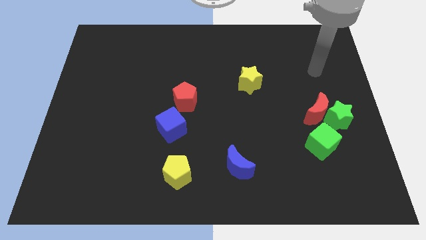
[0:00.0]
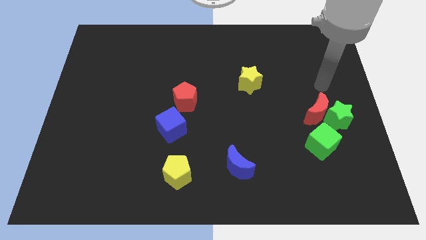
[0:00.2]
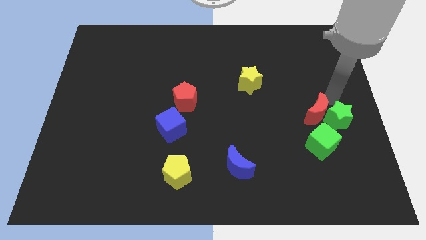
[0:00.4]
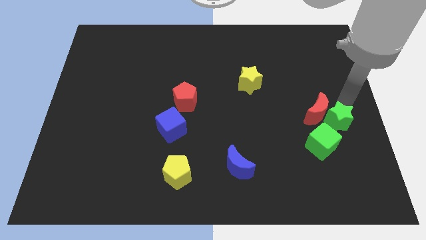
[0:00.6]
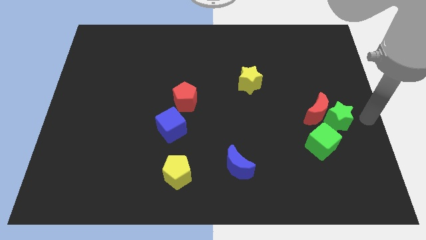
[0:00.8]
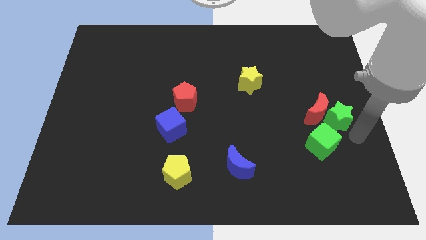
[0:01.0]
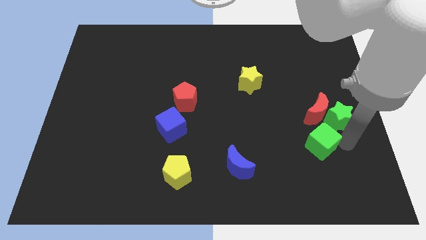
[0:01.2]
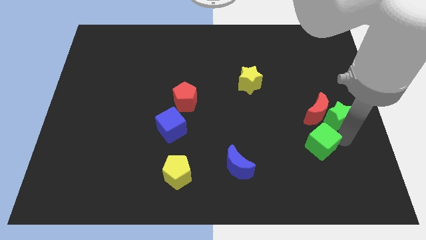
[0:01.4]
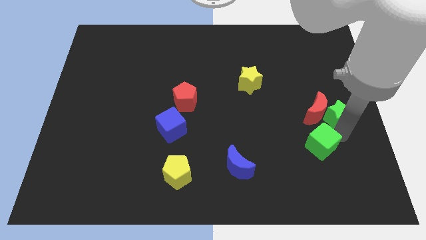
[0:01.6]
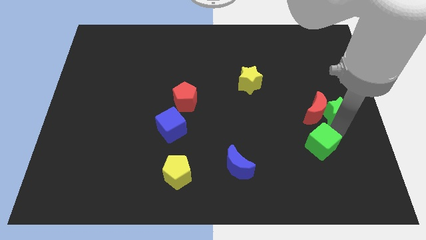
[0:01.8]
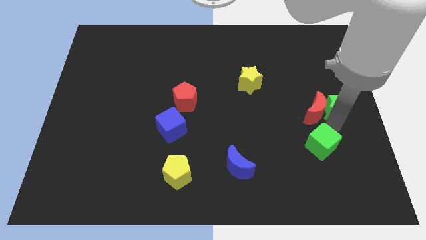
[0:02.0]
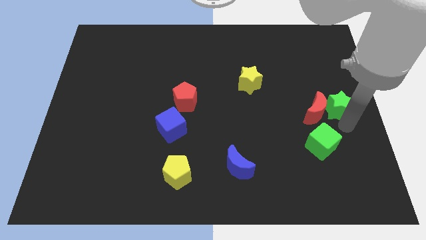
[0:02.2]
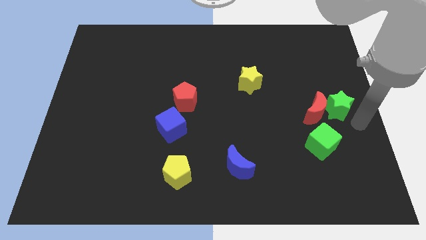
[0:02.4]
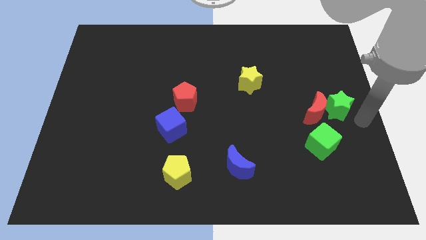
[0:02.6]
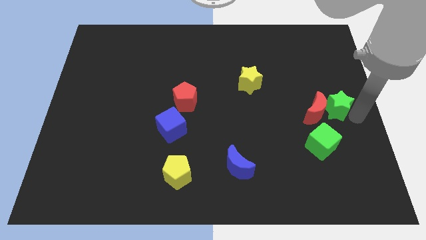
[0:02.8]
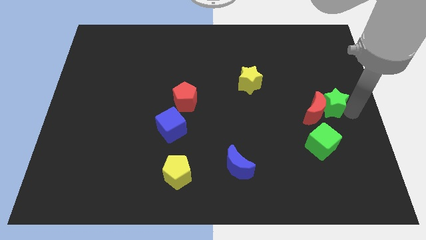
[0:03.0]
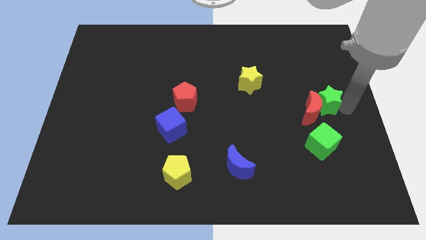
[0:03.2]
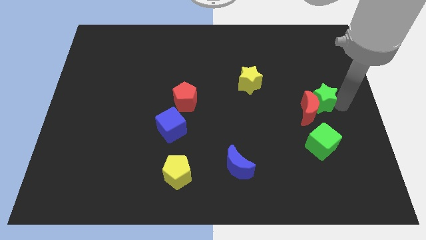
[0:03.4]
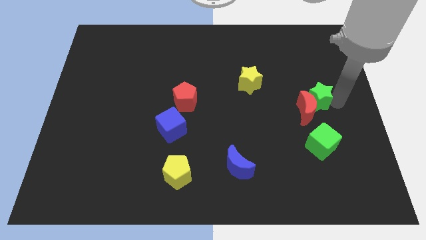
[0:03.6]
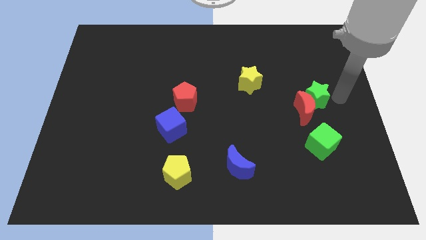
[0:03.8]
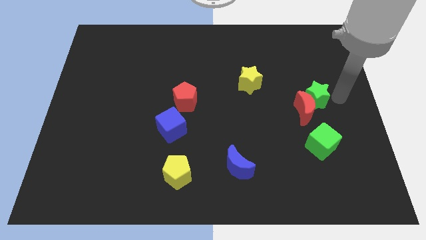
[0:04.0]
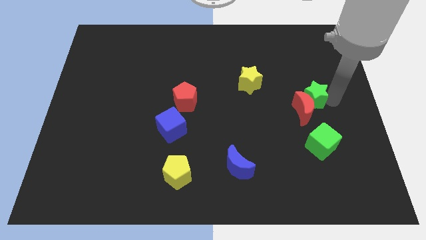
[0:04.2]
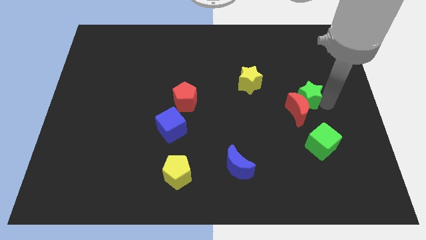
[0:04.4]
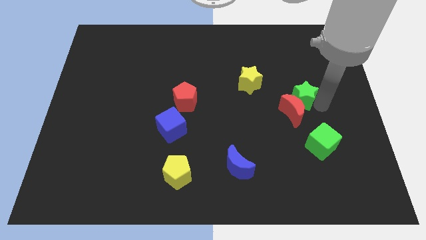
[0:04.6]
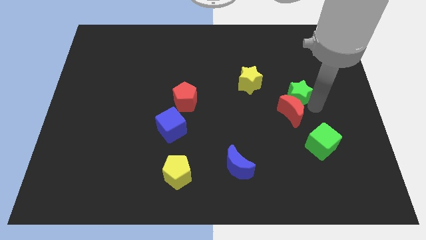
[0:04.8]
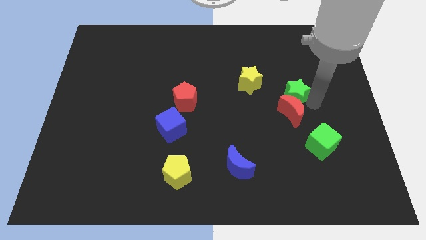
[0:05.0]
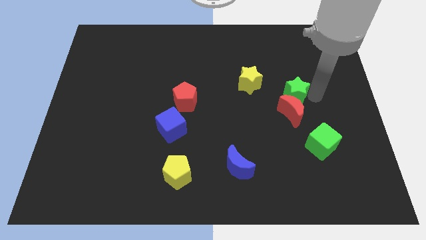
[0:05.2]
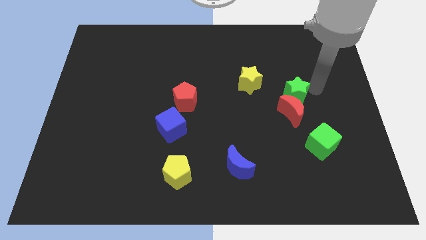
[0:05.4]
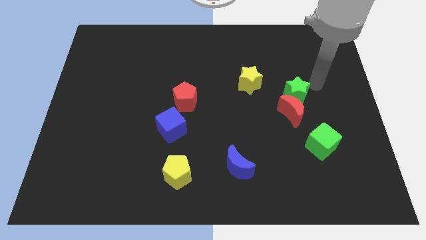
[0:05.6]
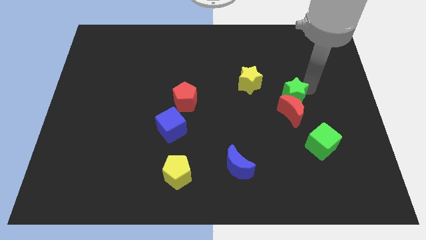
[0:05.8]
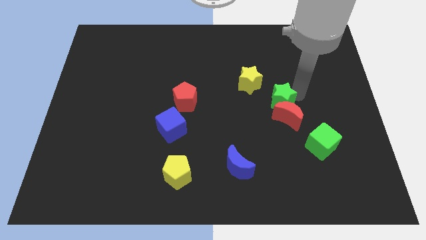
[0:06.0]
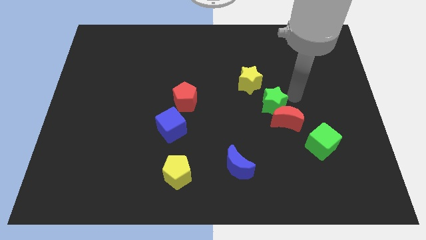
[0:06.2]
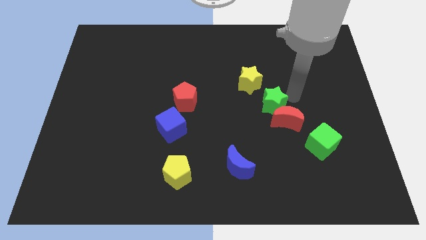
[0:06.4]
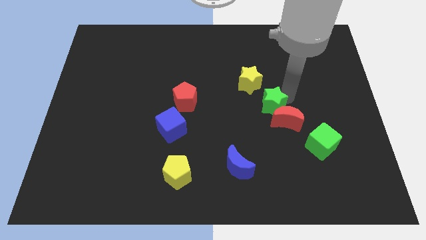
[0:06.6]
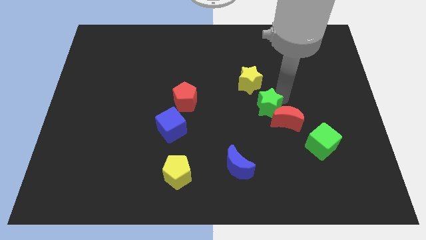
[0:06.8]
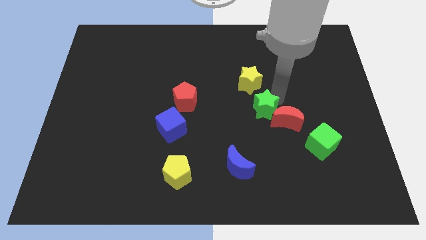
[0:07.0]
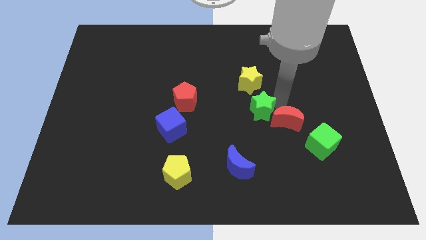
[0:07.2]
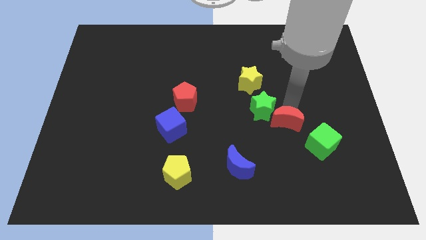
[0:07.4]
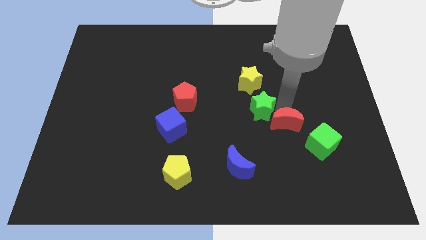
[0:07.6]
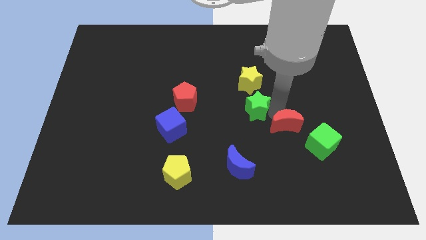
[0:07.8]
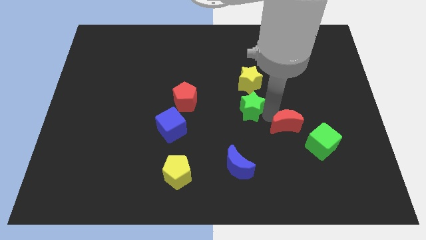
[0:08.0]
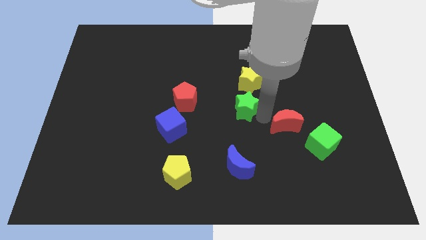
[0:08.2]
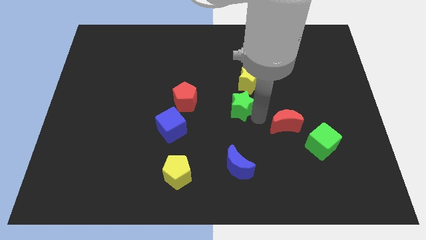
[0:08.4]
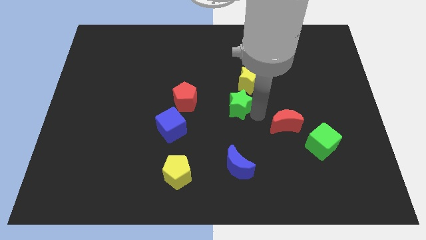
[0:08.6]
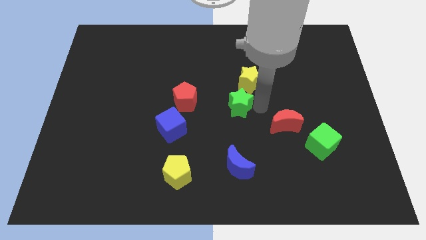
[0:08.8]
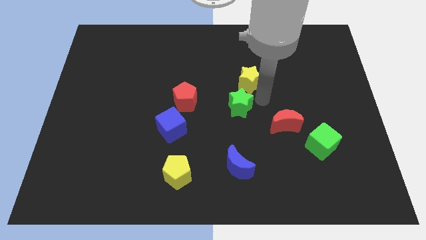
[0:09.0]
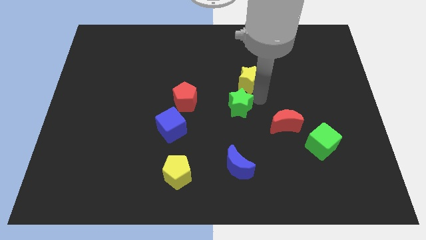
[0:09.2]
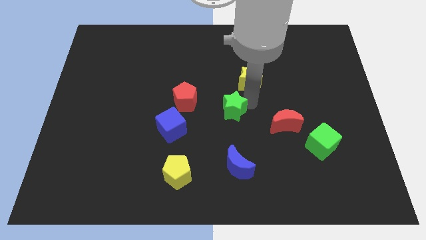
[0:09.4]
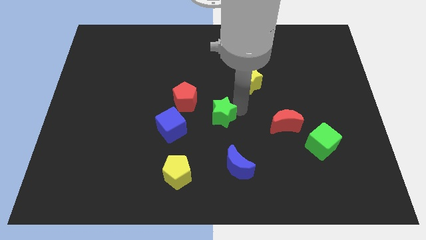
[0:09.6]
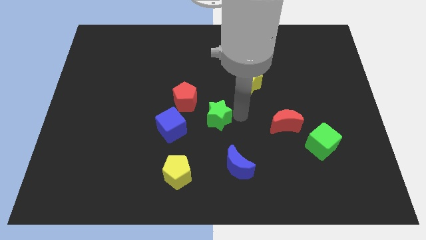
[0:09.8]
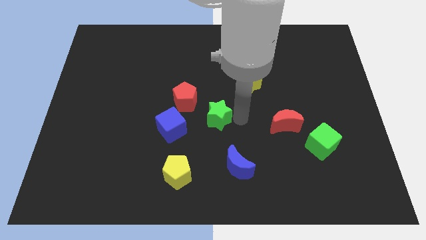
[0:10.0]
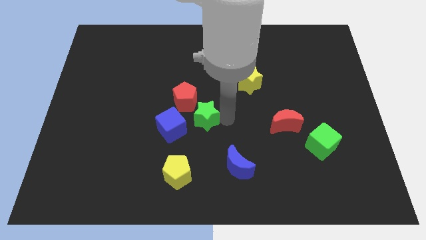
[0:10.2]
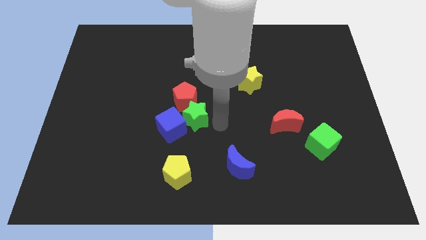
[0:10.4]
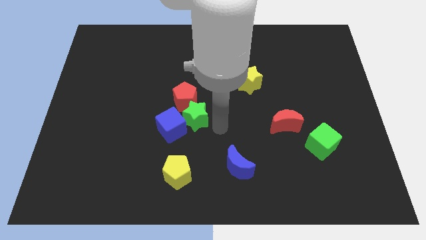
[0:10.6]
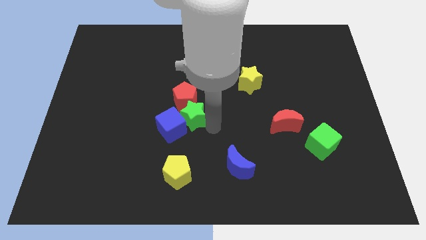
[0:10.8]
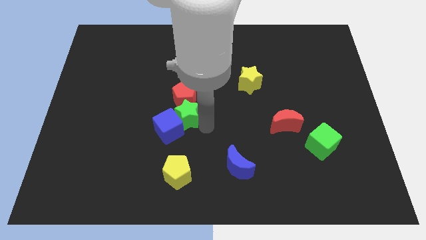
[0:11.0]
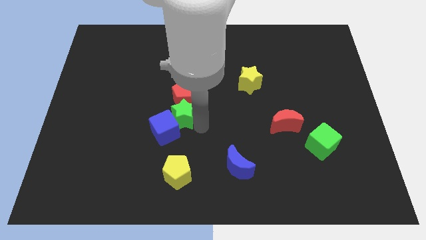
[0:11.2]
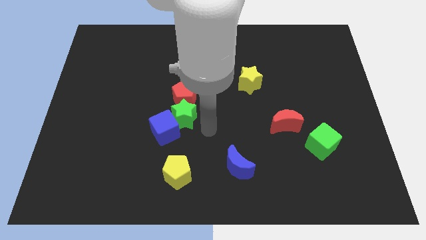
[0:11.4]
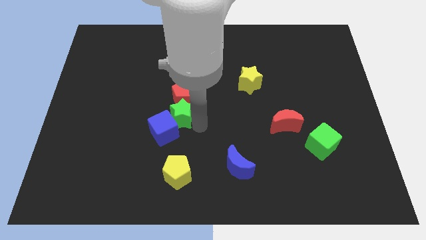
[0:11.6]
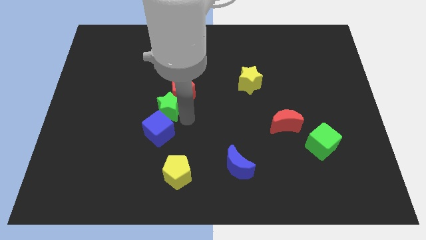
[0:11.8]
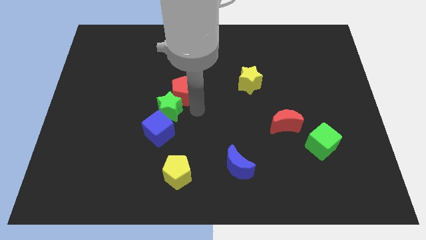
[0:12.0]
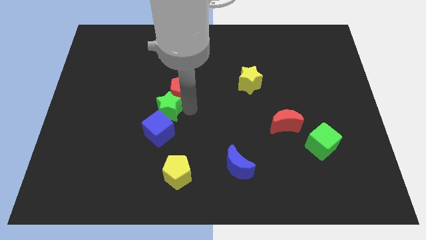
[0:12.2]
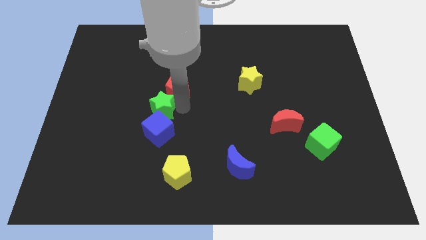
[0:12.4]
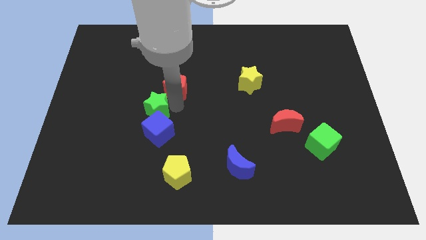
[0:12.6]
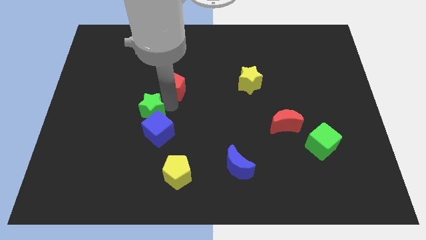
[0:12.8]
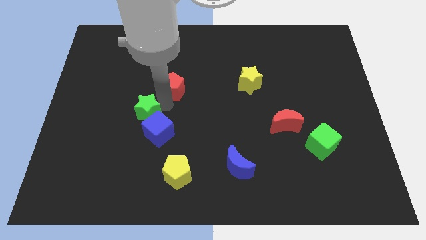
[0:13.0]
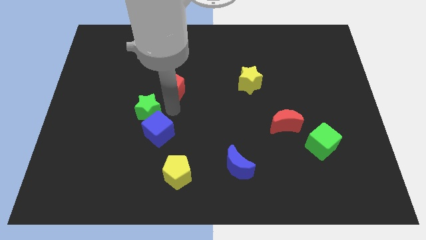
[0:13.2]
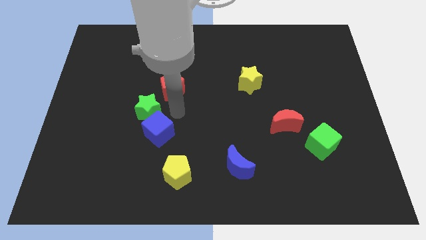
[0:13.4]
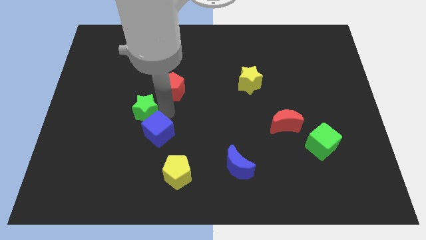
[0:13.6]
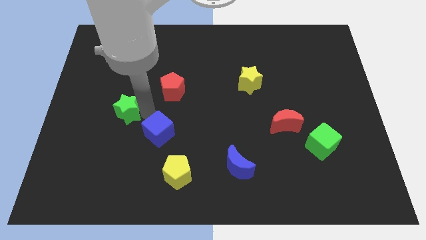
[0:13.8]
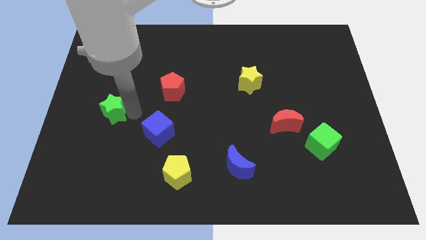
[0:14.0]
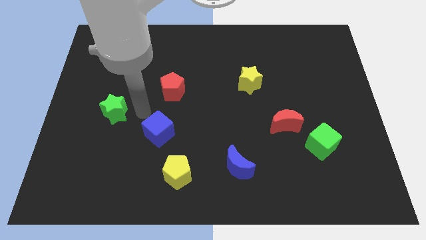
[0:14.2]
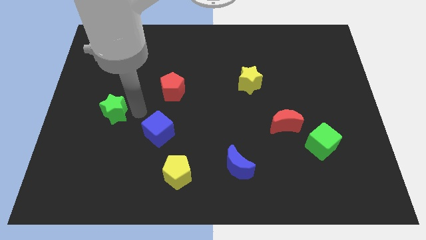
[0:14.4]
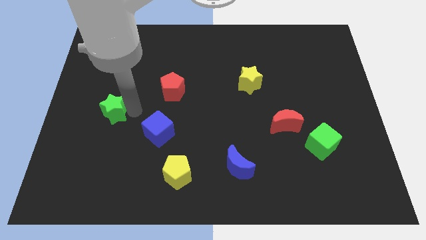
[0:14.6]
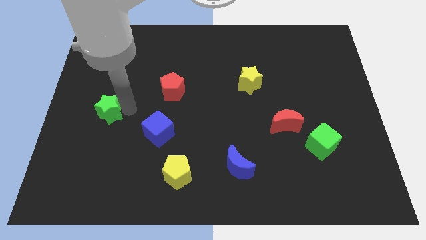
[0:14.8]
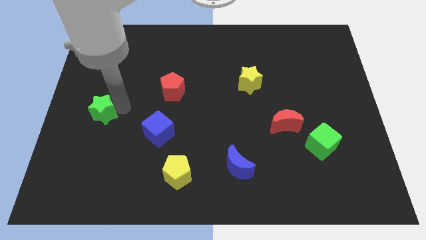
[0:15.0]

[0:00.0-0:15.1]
push the green star to the center left
